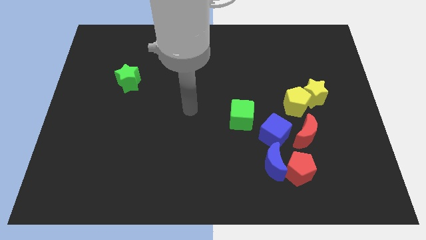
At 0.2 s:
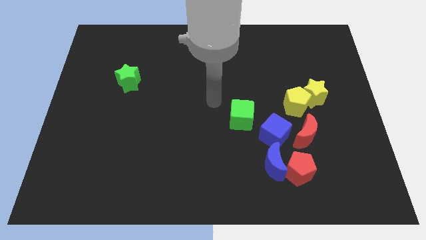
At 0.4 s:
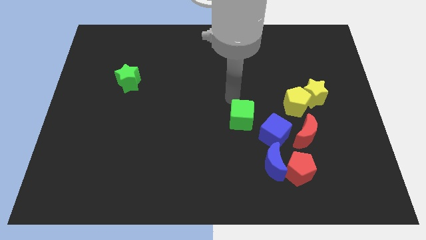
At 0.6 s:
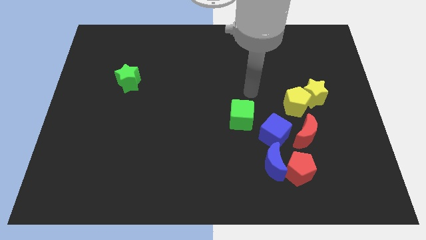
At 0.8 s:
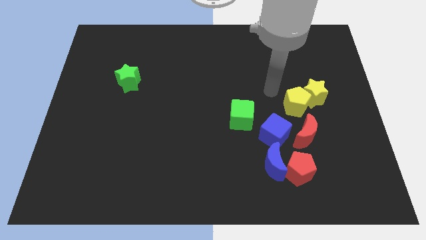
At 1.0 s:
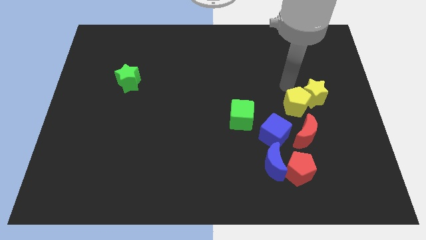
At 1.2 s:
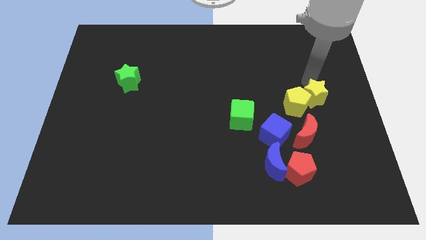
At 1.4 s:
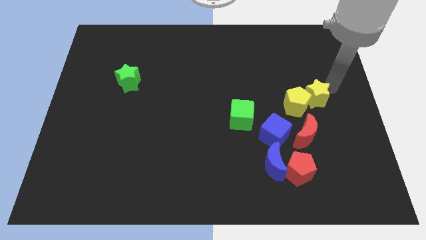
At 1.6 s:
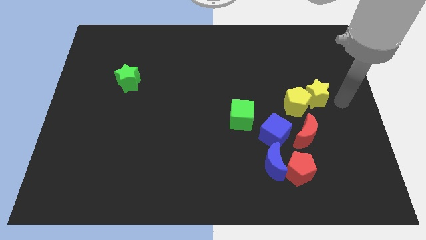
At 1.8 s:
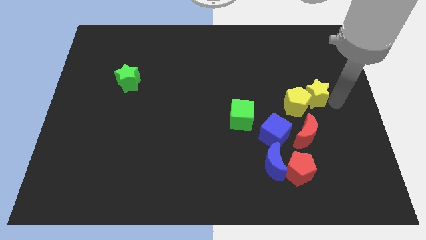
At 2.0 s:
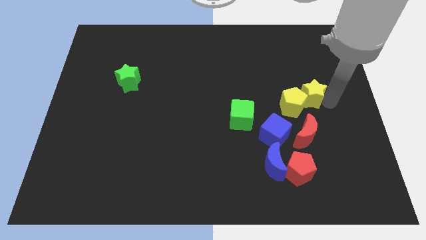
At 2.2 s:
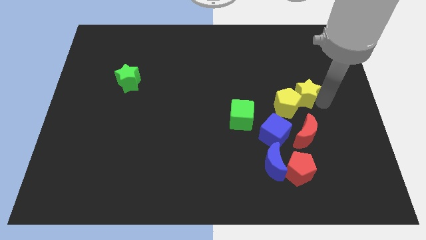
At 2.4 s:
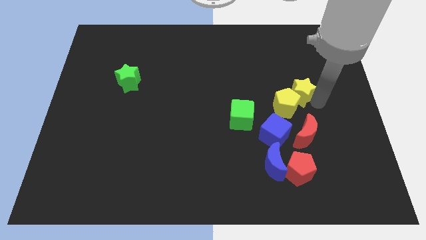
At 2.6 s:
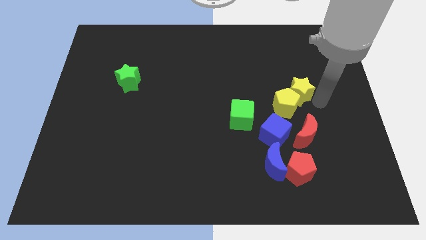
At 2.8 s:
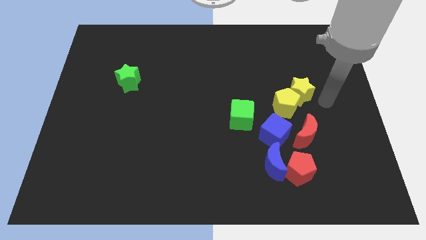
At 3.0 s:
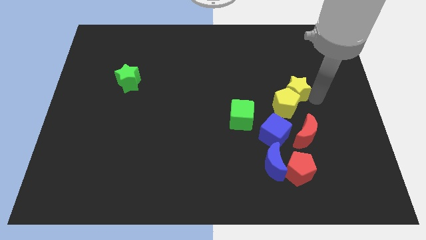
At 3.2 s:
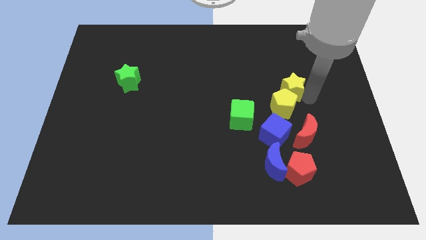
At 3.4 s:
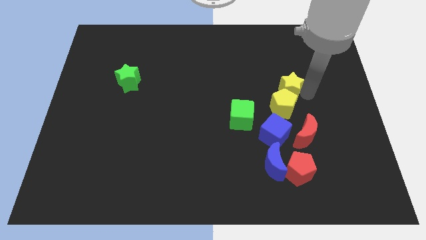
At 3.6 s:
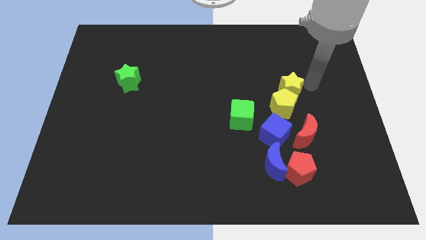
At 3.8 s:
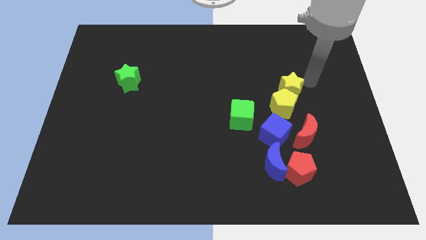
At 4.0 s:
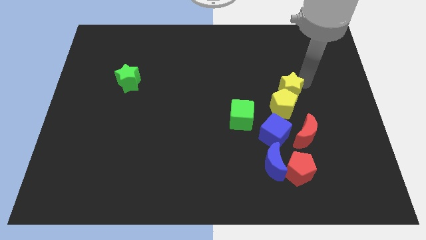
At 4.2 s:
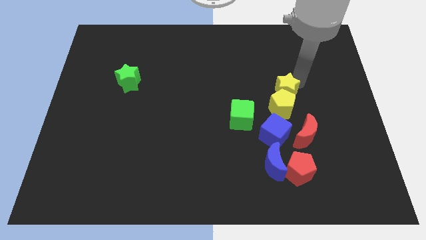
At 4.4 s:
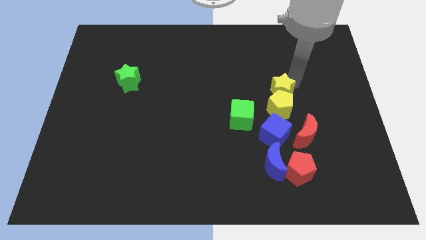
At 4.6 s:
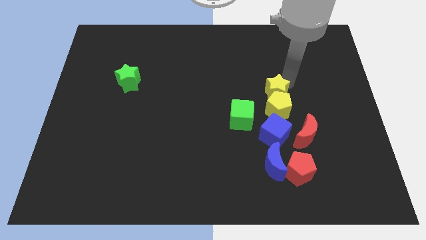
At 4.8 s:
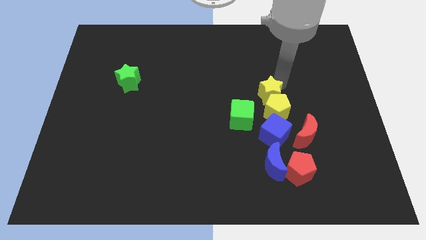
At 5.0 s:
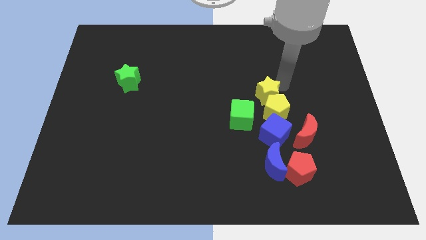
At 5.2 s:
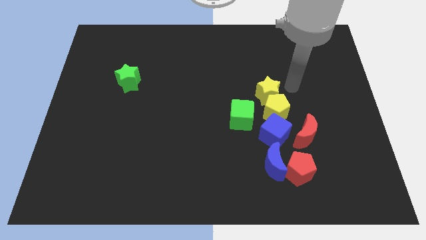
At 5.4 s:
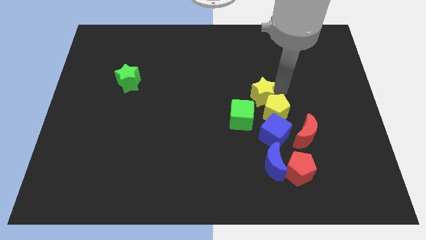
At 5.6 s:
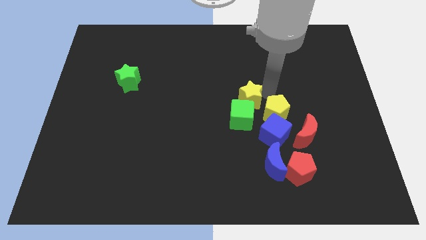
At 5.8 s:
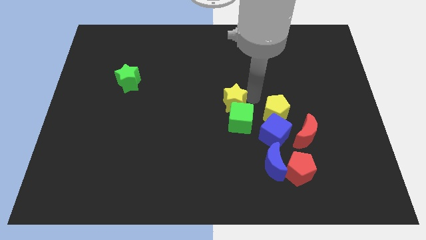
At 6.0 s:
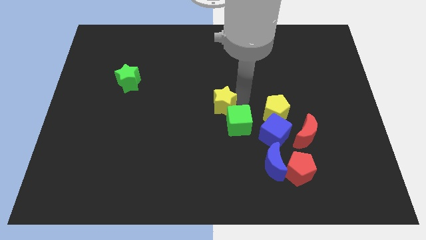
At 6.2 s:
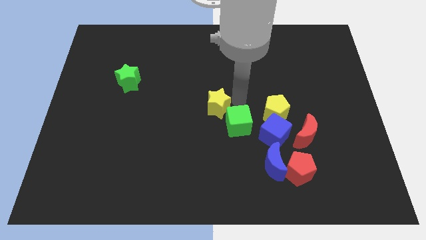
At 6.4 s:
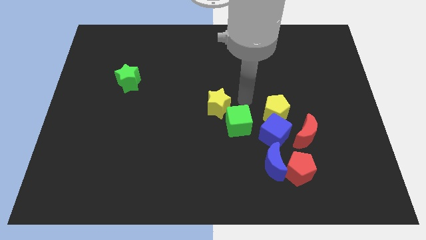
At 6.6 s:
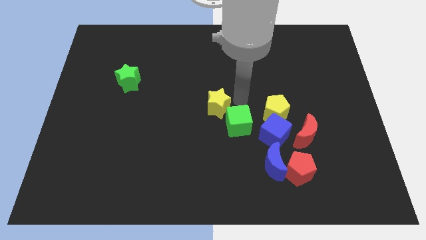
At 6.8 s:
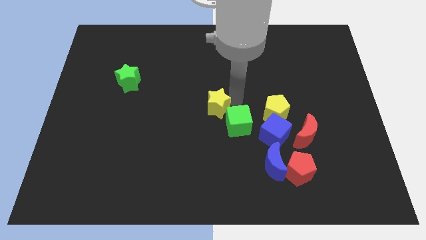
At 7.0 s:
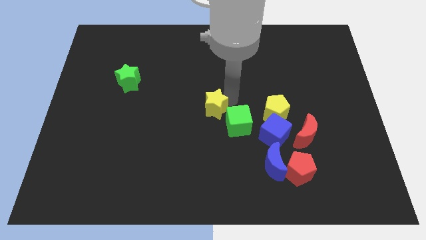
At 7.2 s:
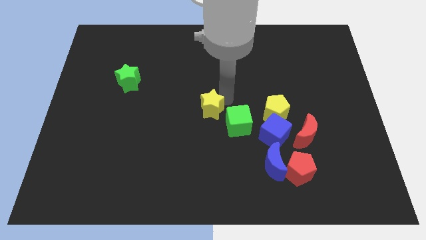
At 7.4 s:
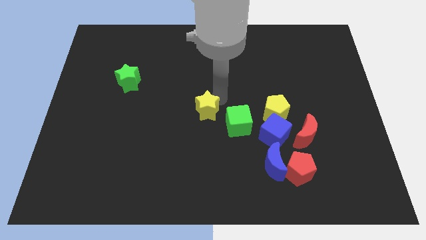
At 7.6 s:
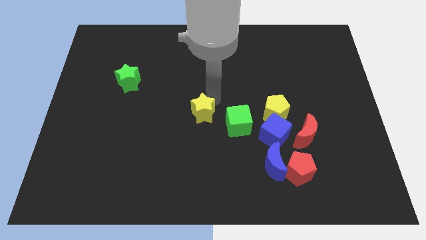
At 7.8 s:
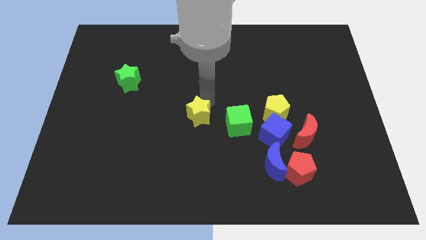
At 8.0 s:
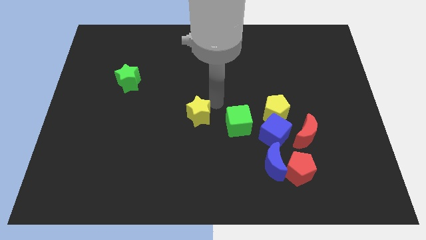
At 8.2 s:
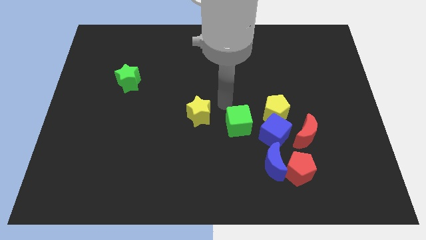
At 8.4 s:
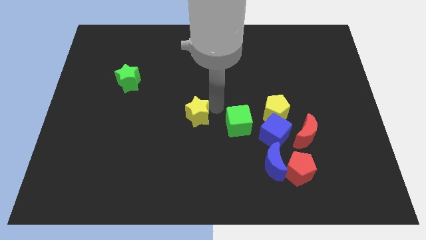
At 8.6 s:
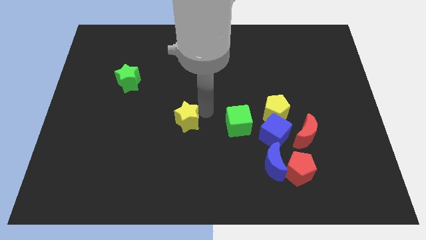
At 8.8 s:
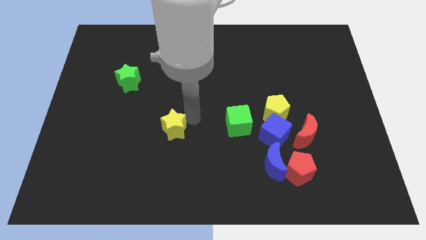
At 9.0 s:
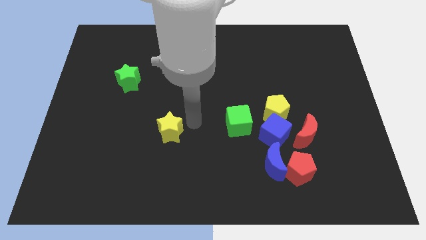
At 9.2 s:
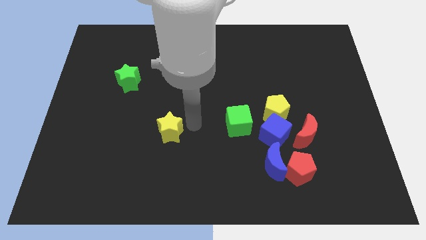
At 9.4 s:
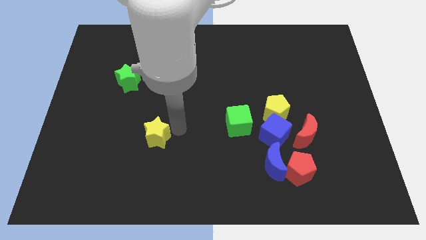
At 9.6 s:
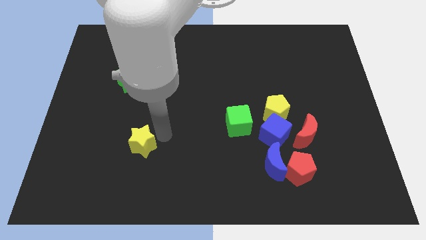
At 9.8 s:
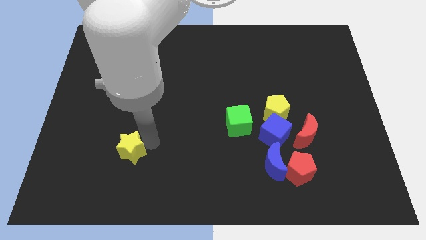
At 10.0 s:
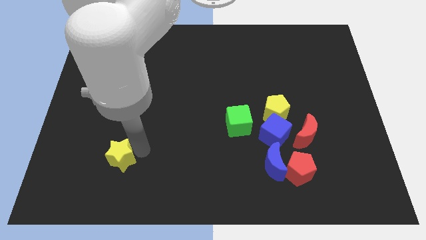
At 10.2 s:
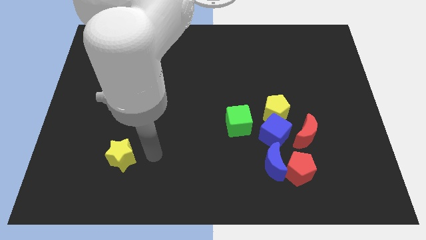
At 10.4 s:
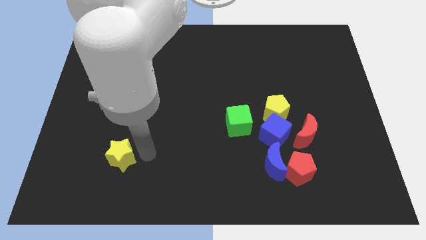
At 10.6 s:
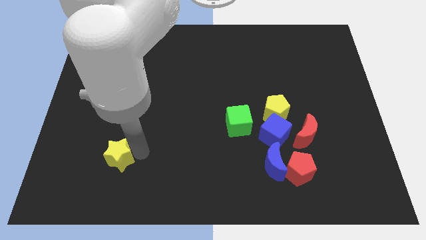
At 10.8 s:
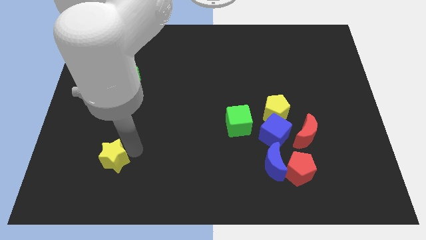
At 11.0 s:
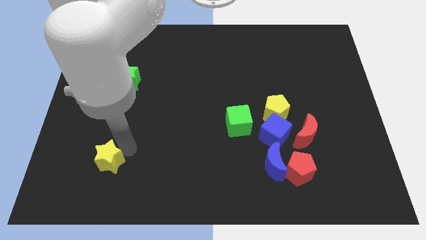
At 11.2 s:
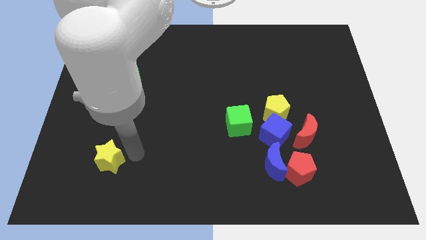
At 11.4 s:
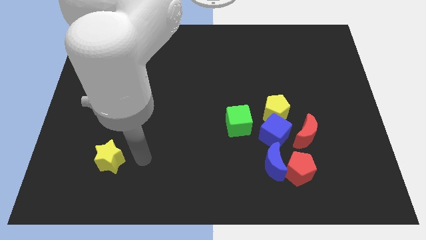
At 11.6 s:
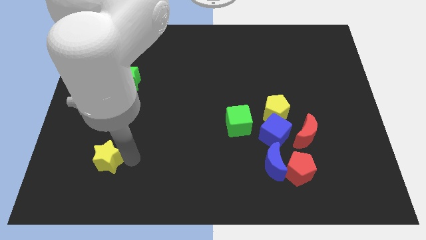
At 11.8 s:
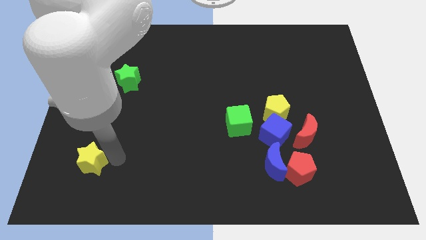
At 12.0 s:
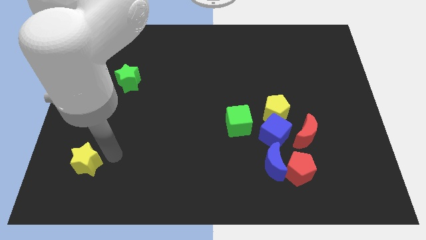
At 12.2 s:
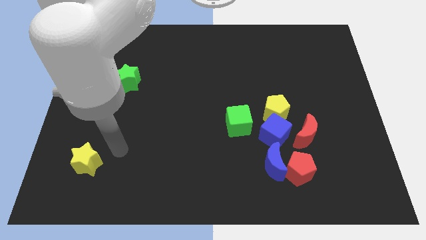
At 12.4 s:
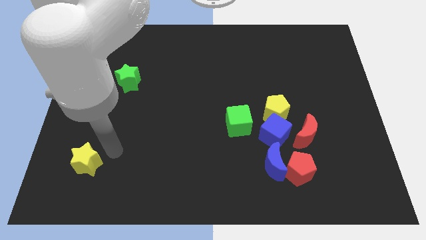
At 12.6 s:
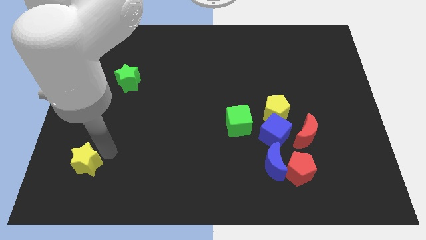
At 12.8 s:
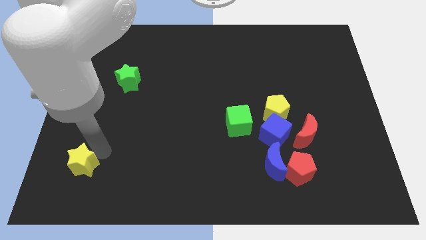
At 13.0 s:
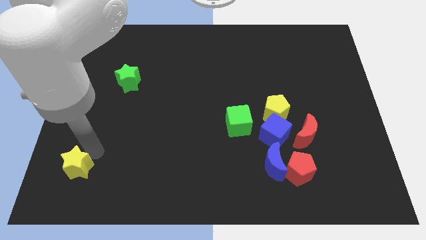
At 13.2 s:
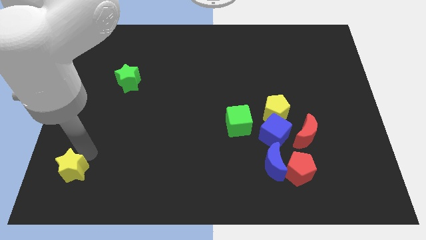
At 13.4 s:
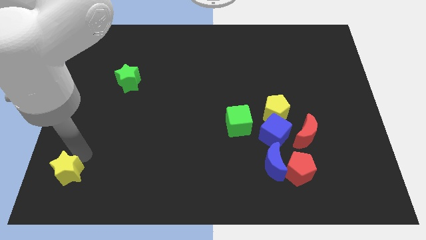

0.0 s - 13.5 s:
push the yellow star to the bottom left
